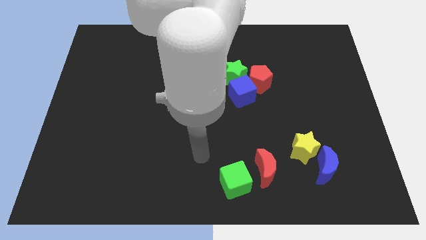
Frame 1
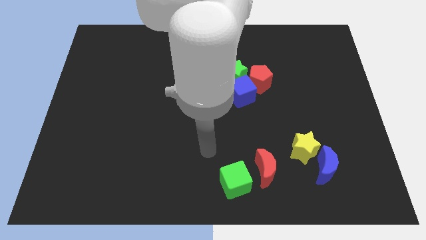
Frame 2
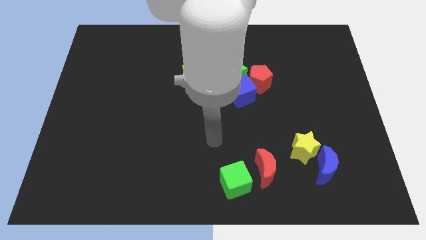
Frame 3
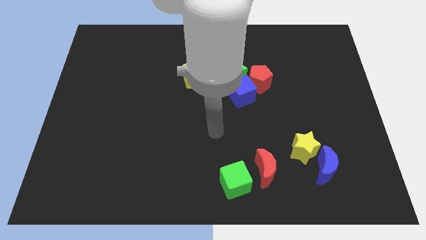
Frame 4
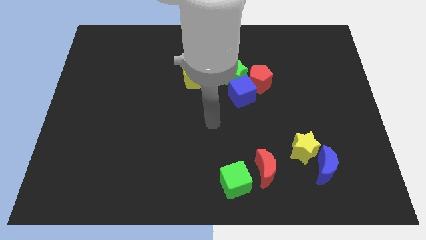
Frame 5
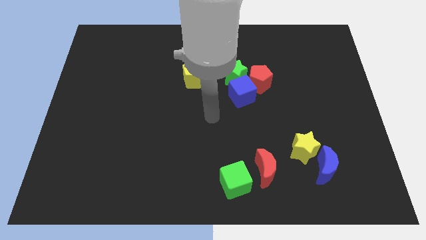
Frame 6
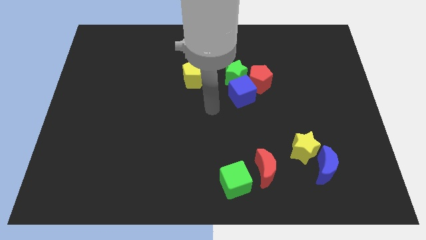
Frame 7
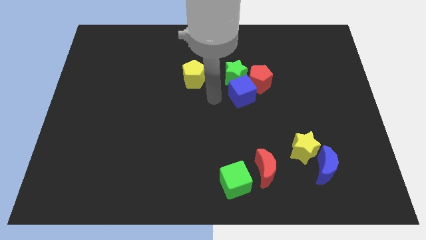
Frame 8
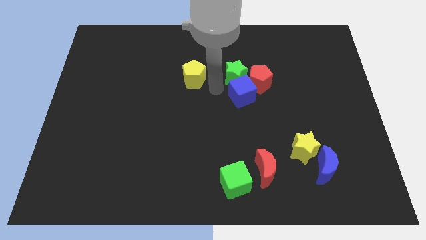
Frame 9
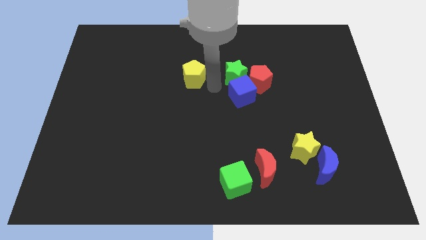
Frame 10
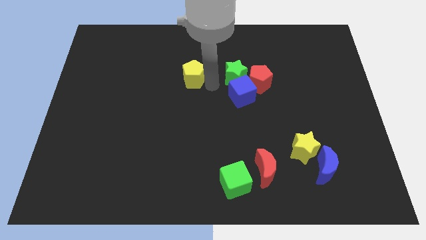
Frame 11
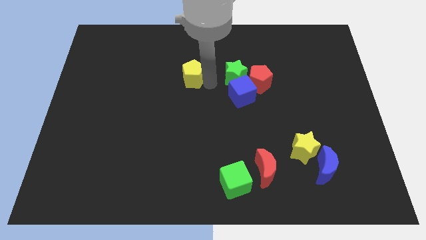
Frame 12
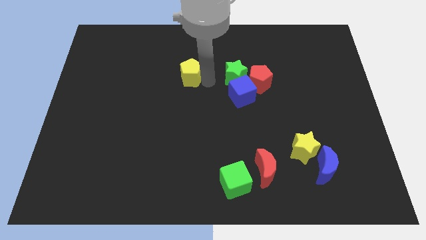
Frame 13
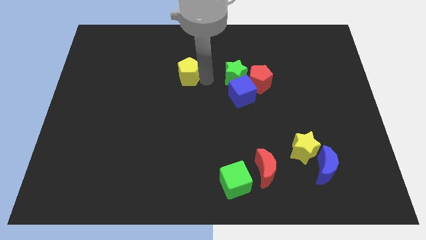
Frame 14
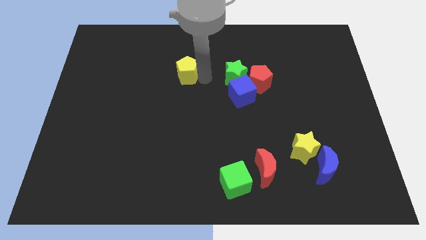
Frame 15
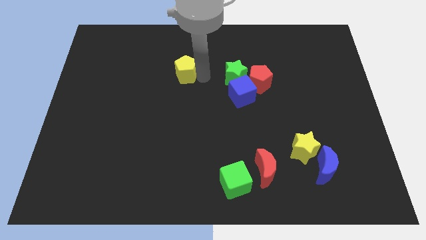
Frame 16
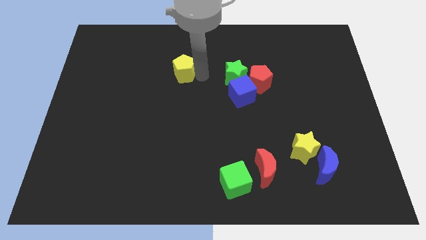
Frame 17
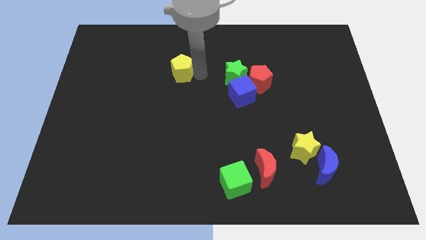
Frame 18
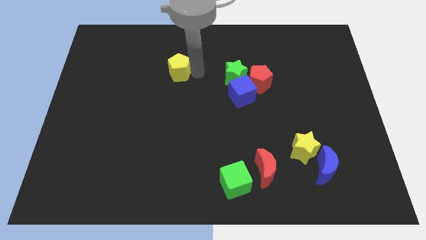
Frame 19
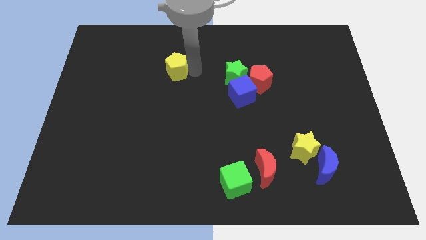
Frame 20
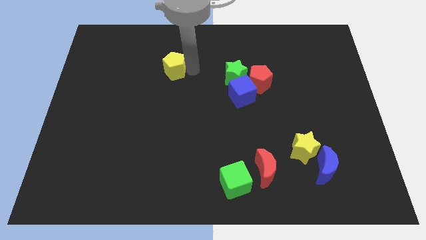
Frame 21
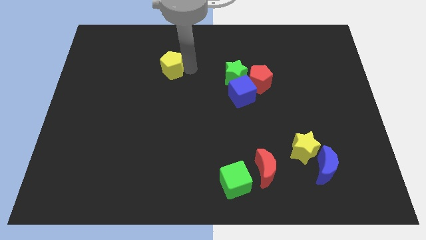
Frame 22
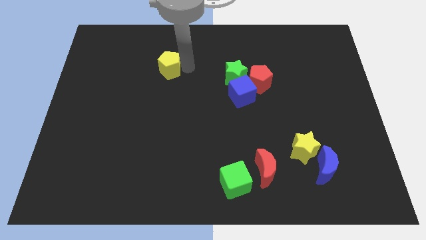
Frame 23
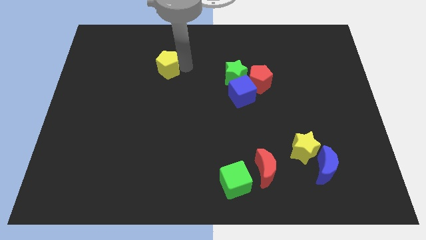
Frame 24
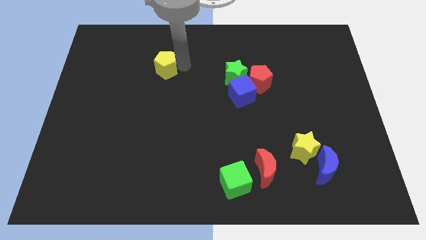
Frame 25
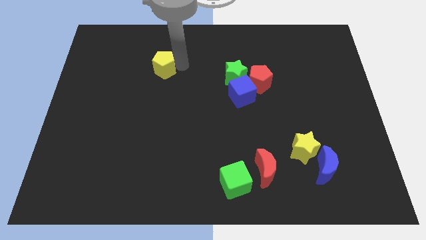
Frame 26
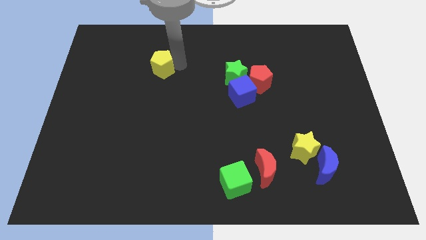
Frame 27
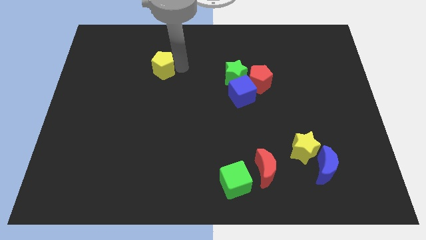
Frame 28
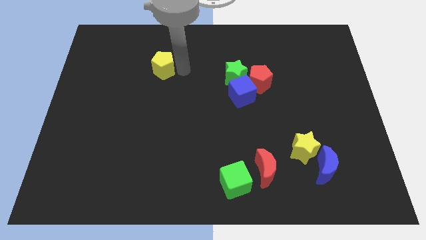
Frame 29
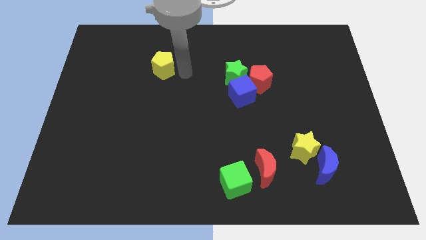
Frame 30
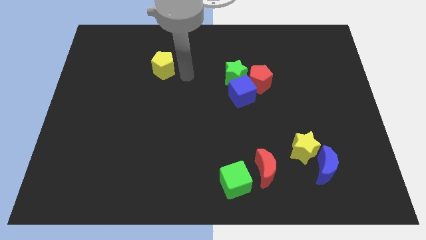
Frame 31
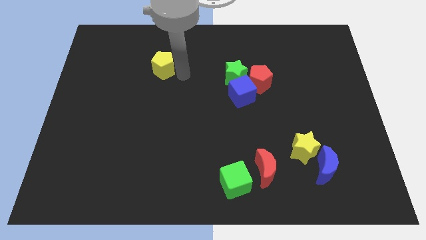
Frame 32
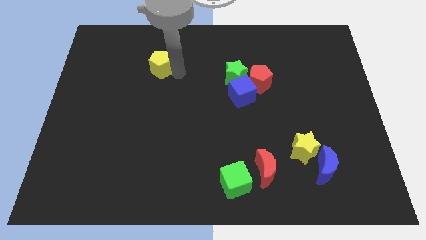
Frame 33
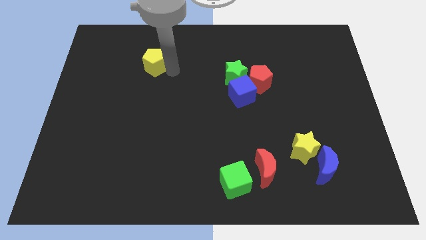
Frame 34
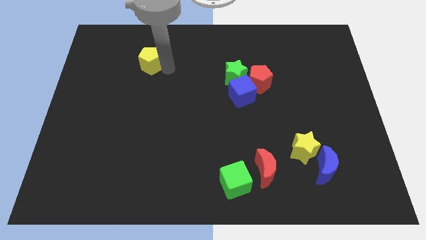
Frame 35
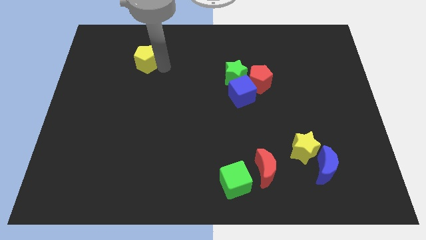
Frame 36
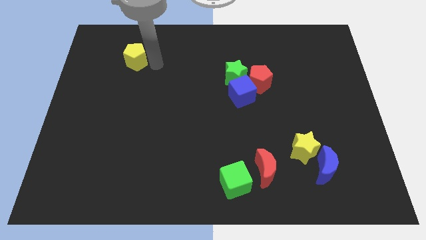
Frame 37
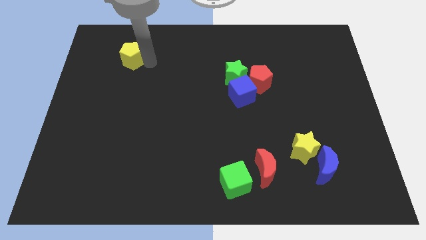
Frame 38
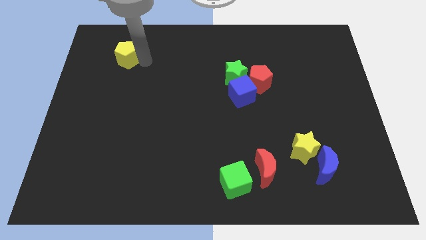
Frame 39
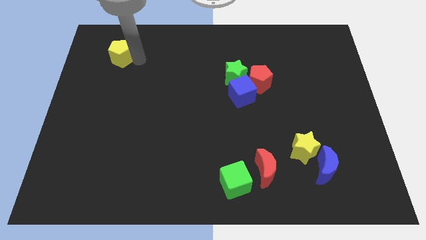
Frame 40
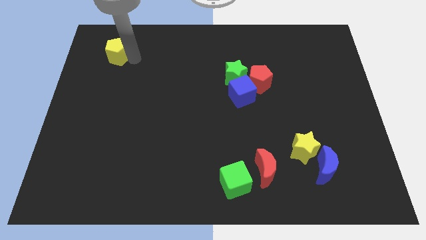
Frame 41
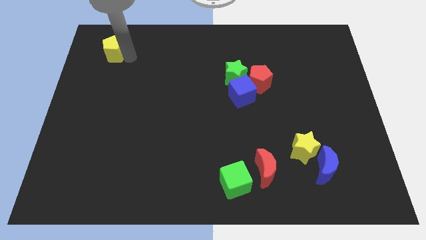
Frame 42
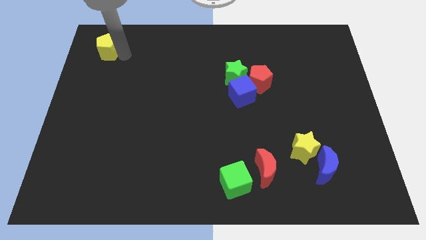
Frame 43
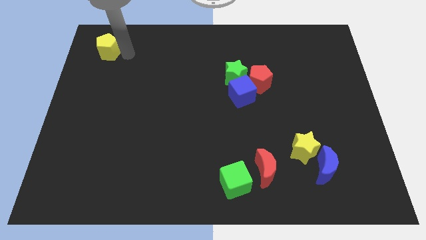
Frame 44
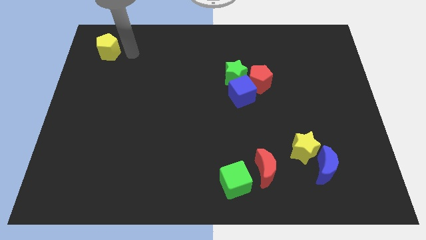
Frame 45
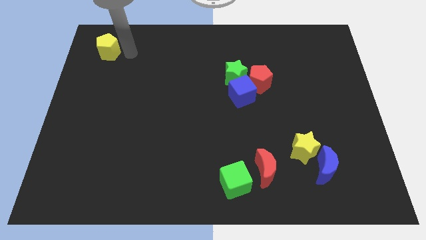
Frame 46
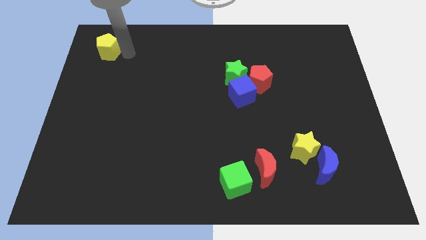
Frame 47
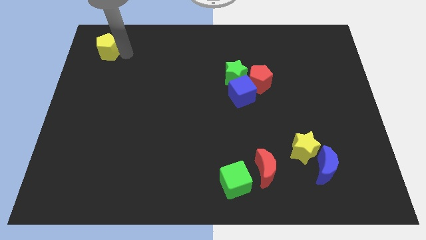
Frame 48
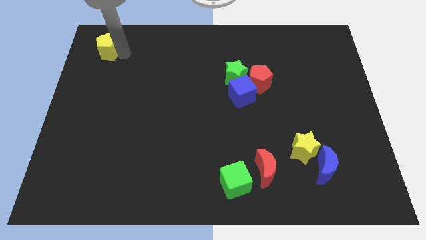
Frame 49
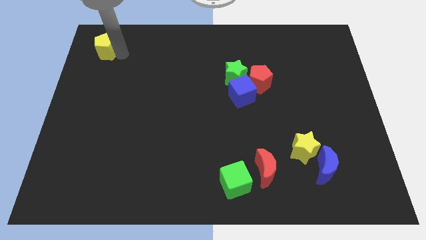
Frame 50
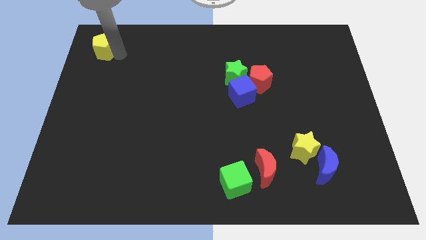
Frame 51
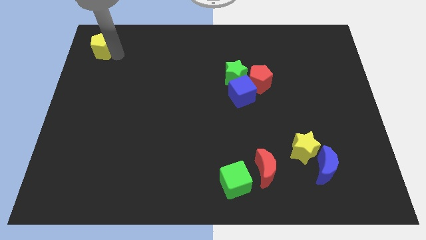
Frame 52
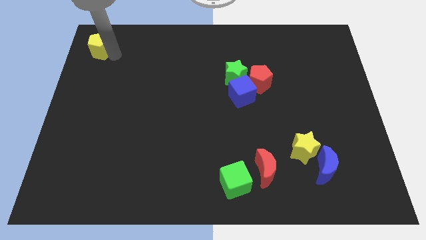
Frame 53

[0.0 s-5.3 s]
move the yellow pentagon to the top left of the board

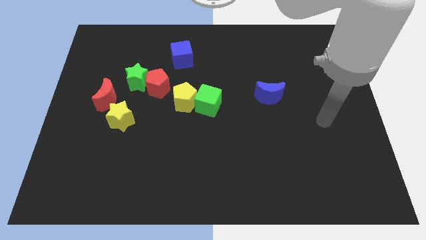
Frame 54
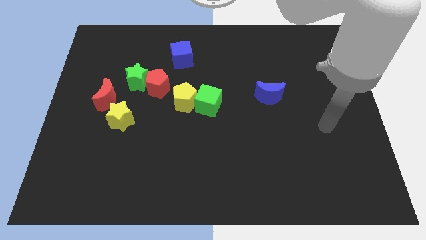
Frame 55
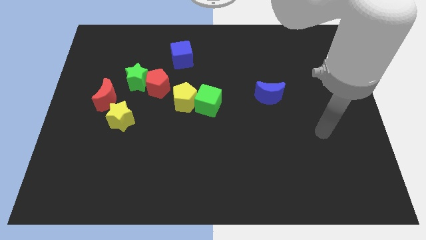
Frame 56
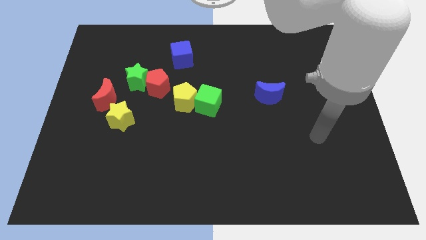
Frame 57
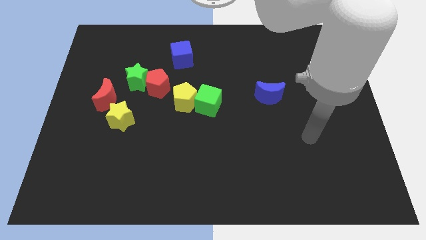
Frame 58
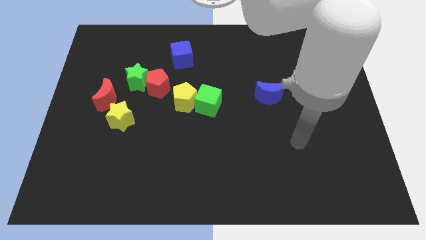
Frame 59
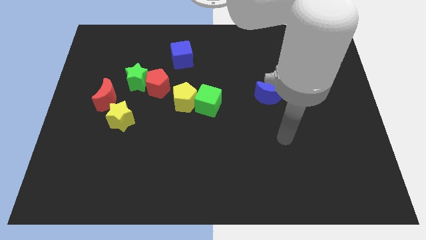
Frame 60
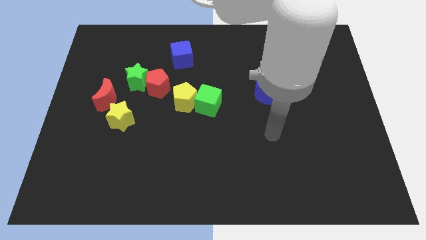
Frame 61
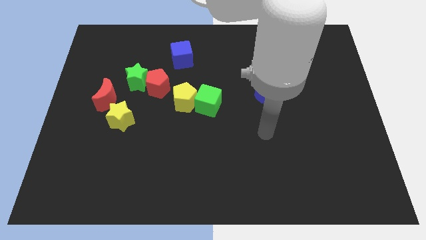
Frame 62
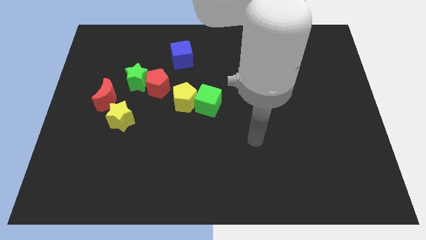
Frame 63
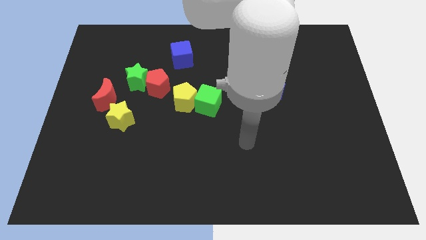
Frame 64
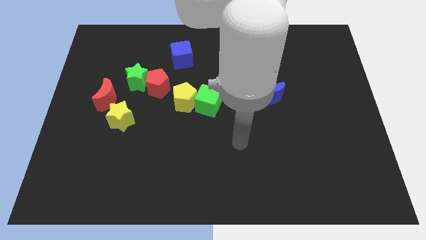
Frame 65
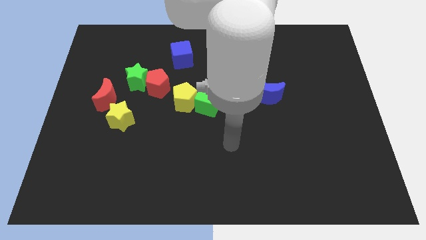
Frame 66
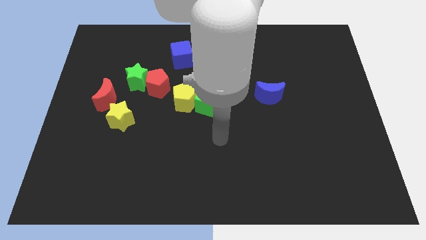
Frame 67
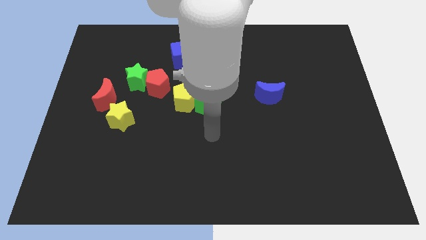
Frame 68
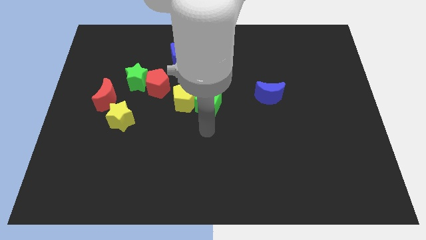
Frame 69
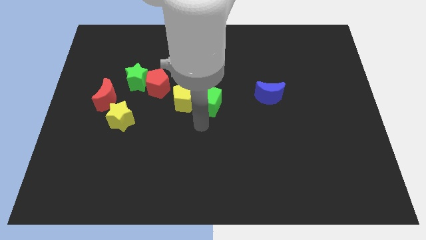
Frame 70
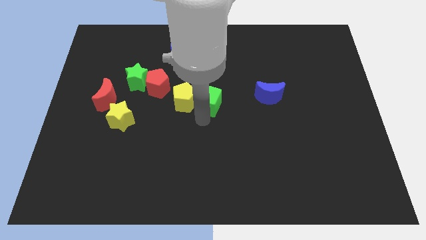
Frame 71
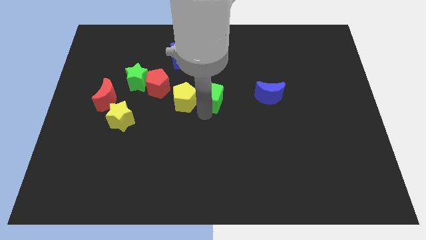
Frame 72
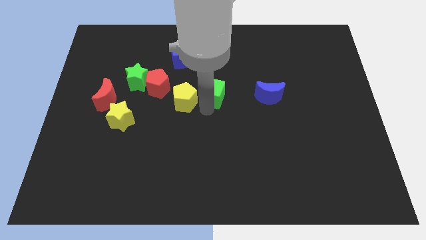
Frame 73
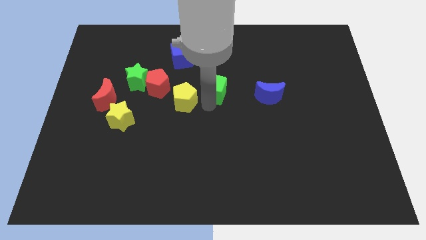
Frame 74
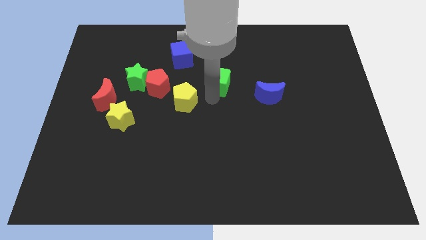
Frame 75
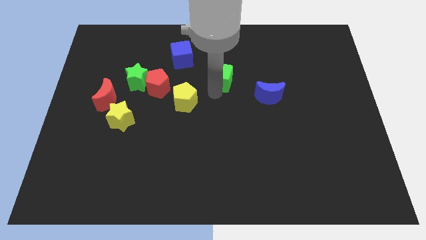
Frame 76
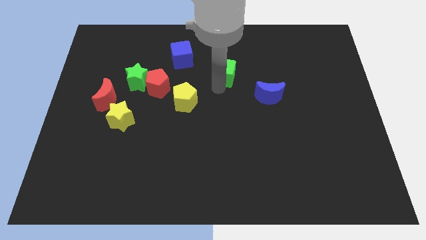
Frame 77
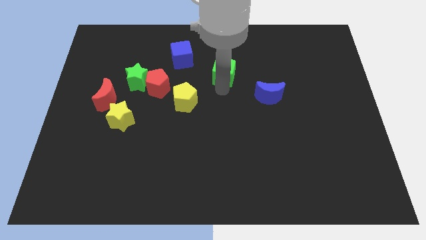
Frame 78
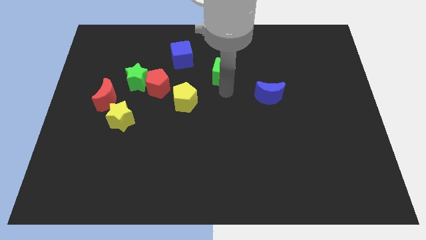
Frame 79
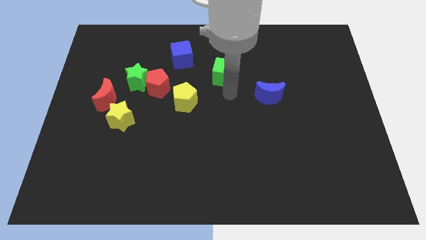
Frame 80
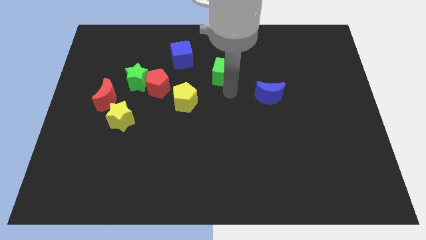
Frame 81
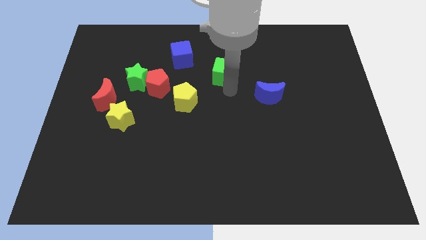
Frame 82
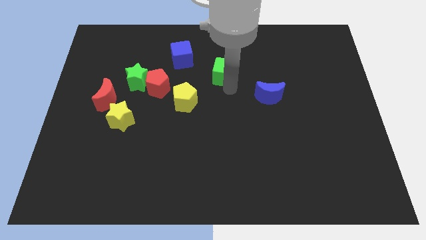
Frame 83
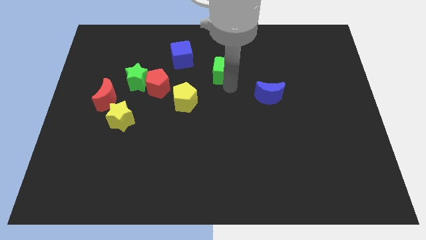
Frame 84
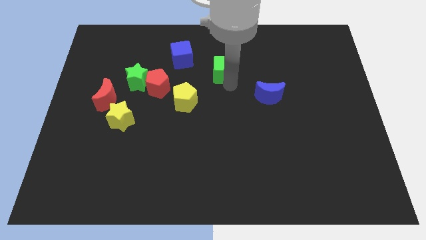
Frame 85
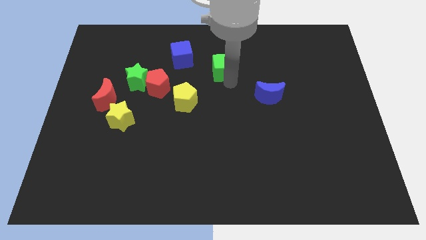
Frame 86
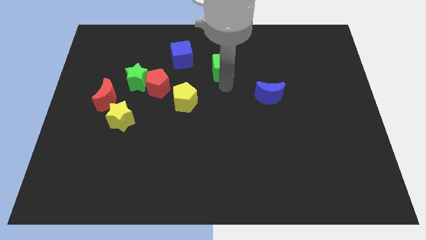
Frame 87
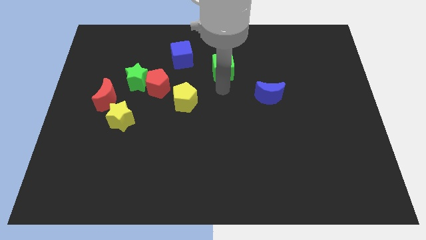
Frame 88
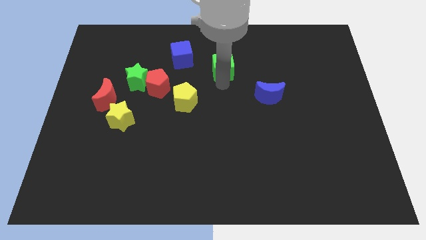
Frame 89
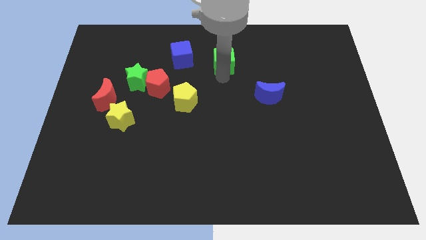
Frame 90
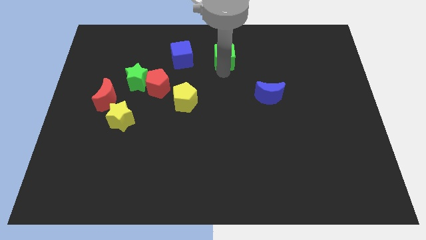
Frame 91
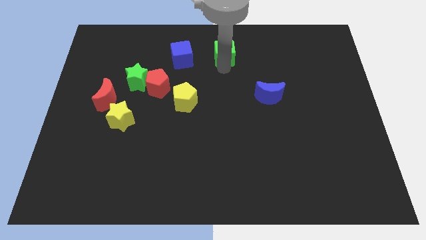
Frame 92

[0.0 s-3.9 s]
move the green cube to the top
